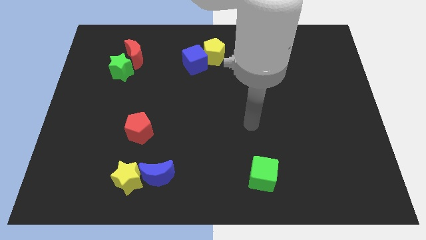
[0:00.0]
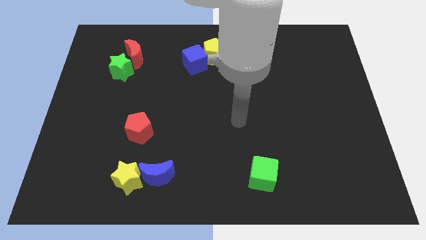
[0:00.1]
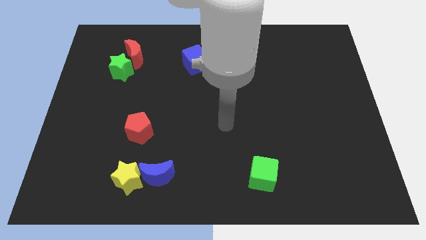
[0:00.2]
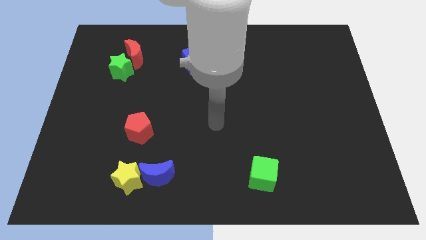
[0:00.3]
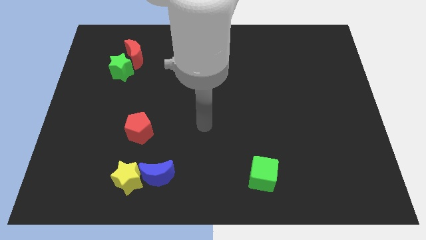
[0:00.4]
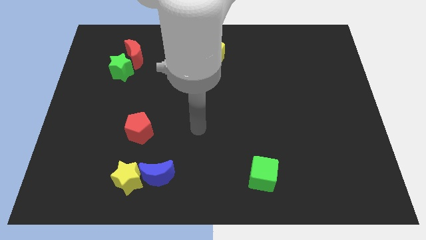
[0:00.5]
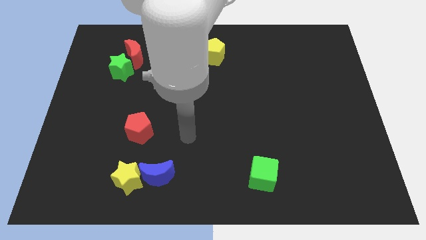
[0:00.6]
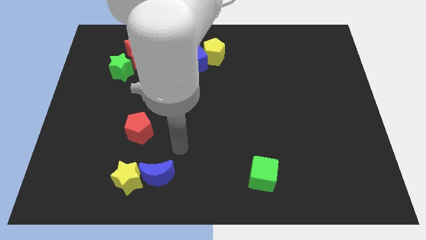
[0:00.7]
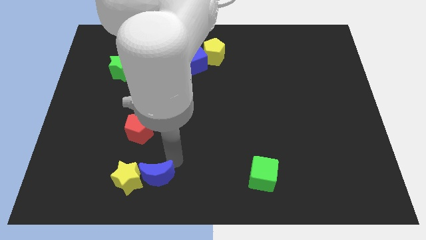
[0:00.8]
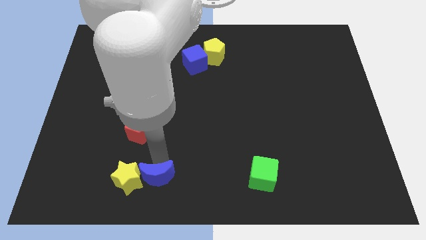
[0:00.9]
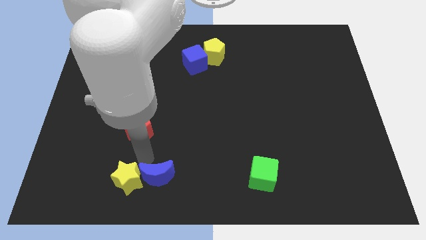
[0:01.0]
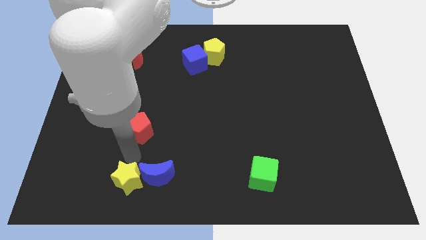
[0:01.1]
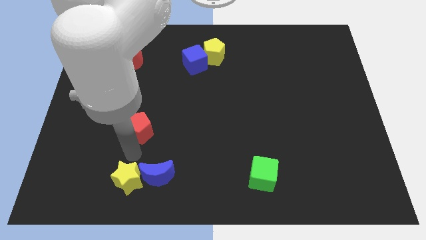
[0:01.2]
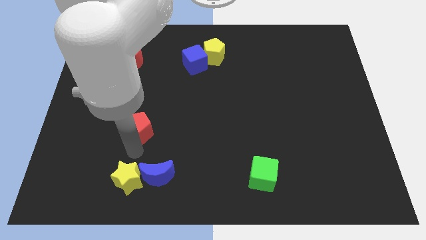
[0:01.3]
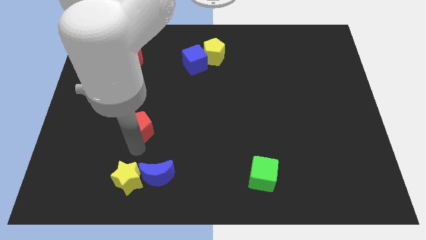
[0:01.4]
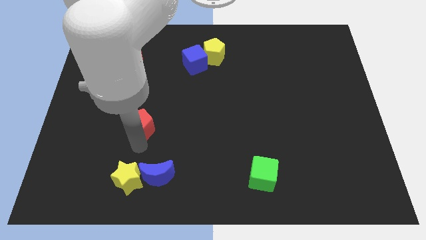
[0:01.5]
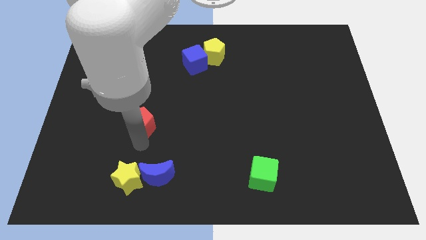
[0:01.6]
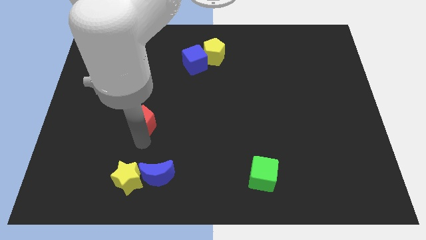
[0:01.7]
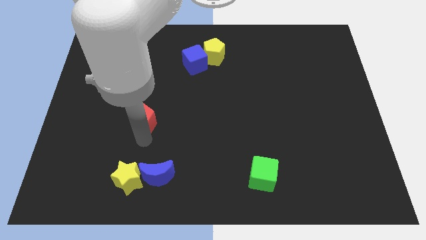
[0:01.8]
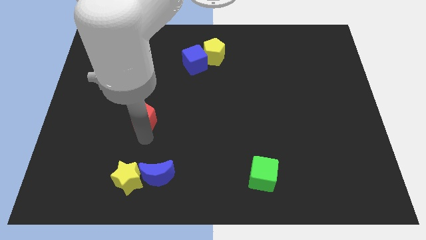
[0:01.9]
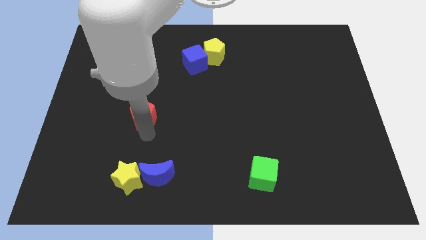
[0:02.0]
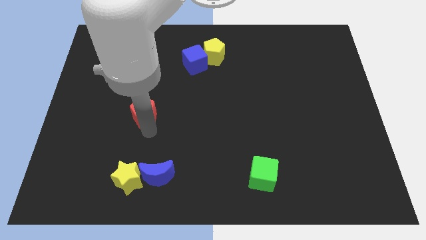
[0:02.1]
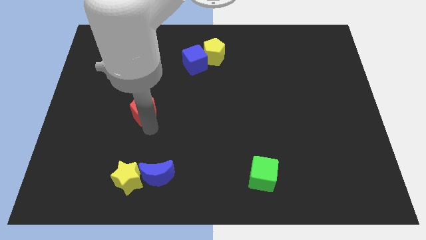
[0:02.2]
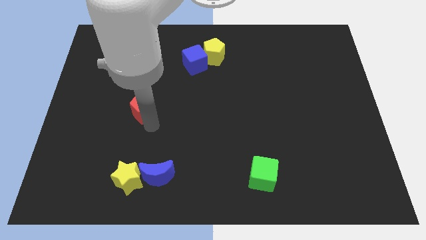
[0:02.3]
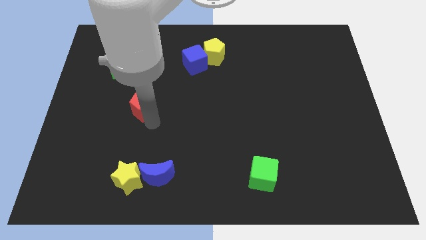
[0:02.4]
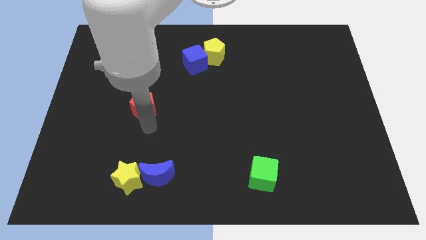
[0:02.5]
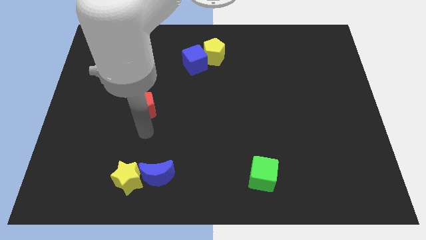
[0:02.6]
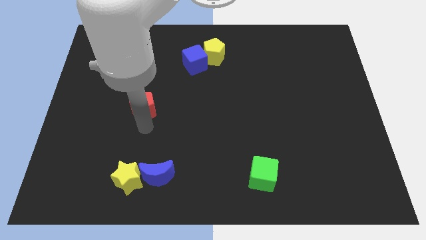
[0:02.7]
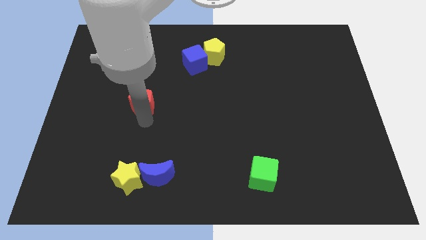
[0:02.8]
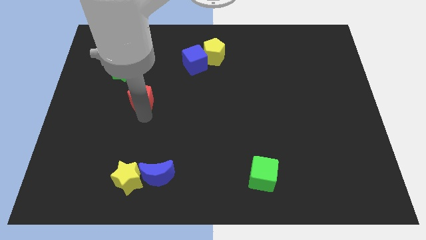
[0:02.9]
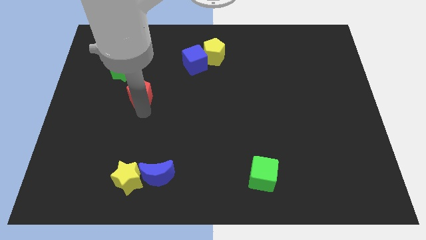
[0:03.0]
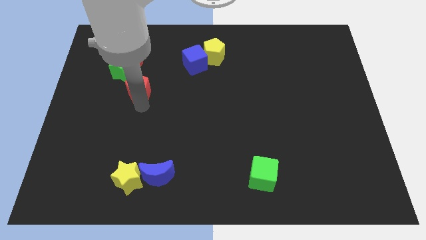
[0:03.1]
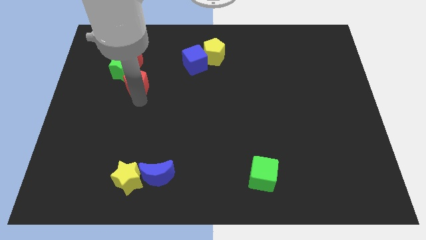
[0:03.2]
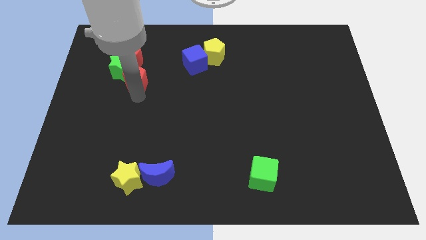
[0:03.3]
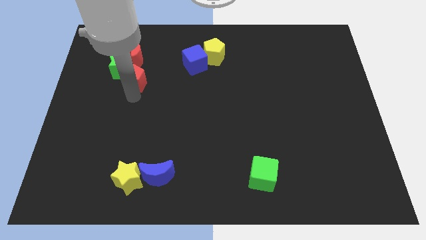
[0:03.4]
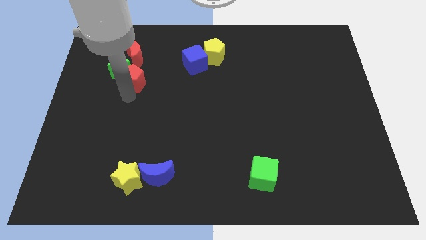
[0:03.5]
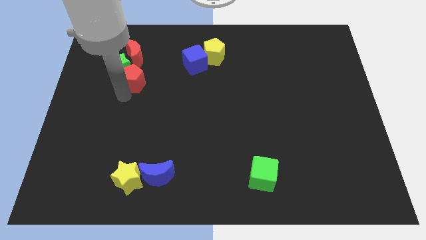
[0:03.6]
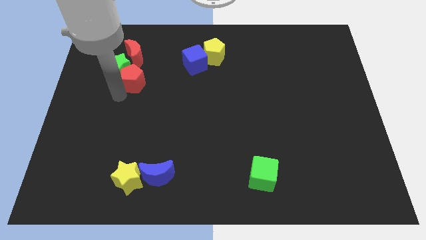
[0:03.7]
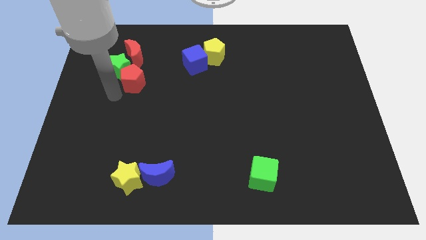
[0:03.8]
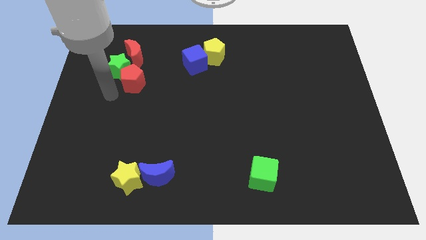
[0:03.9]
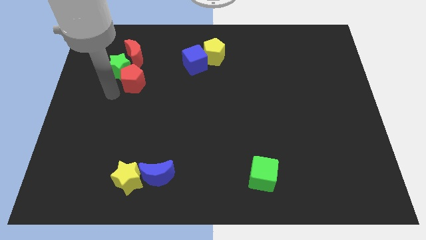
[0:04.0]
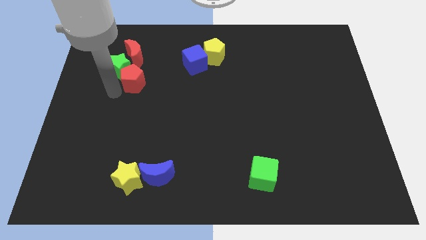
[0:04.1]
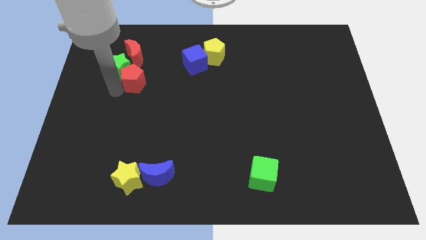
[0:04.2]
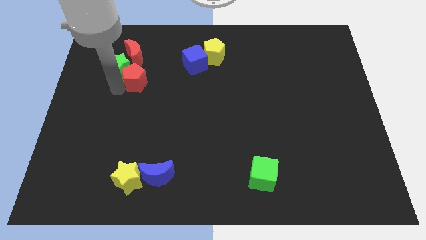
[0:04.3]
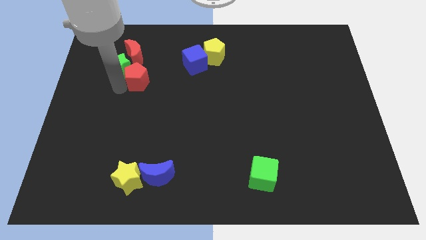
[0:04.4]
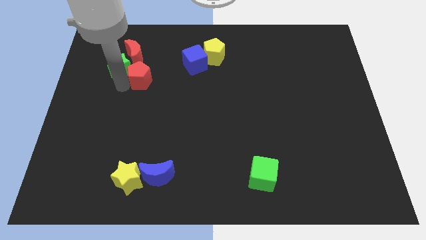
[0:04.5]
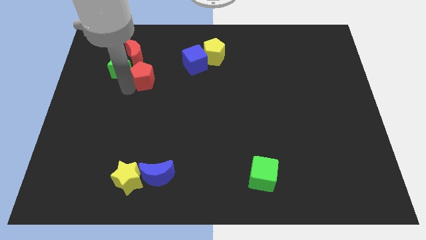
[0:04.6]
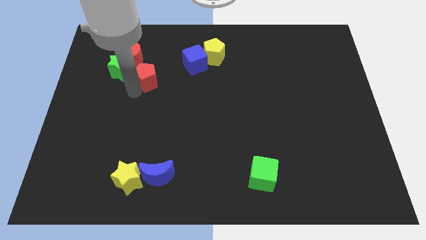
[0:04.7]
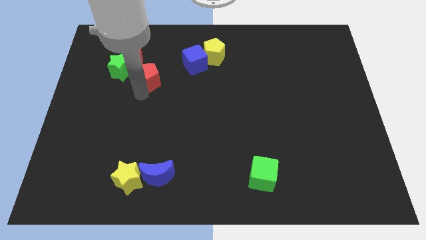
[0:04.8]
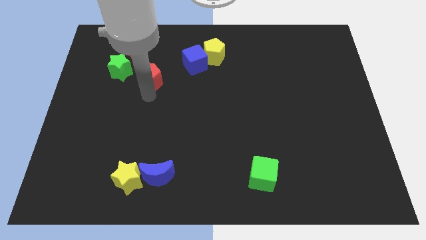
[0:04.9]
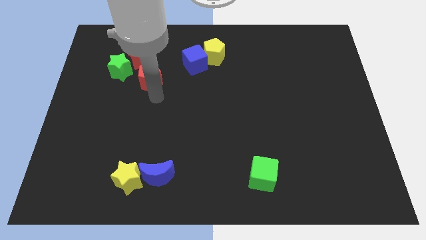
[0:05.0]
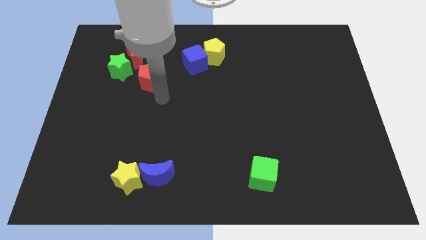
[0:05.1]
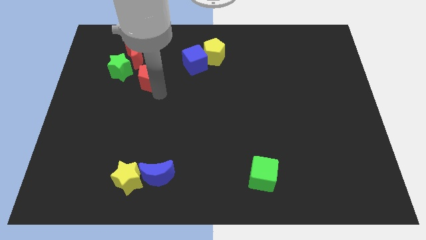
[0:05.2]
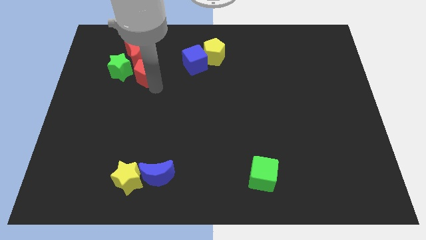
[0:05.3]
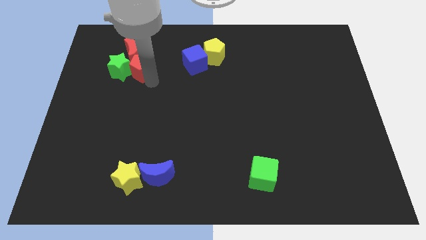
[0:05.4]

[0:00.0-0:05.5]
slide the red pentagon to the red moon

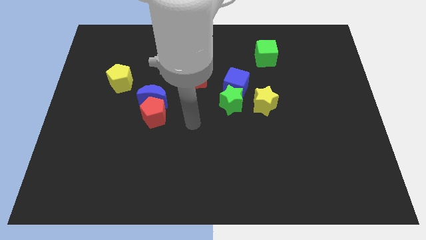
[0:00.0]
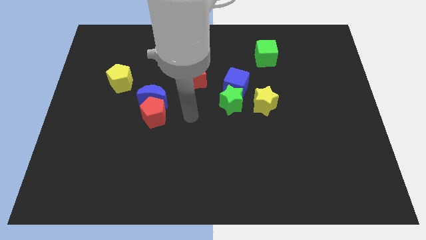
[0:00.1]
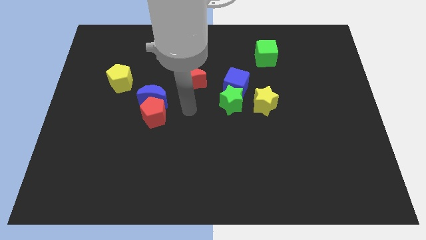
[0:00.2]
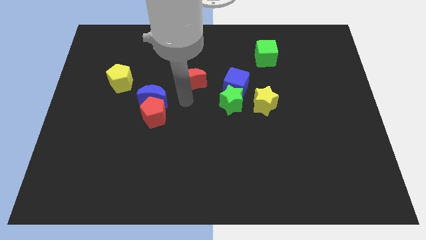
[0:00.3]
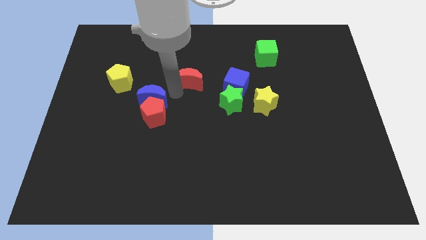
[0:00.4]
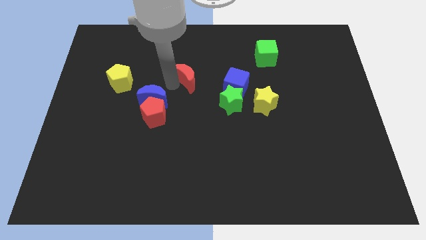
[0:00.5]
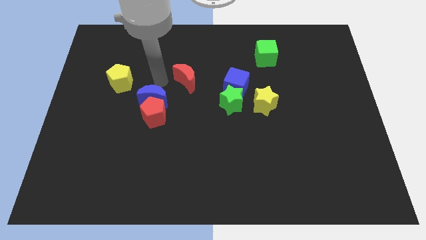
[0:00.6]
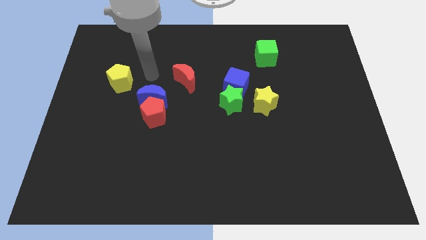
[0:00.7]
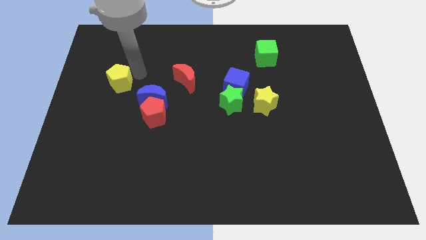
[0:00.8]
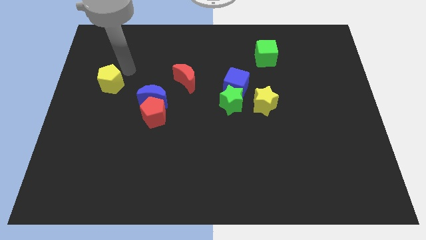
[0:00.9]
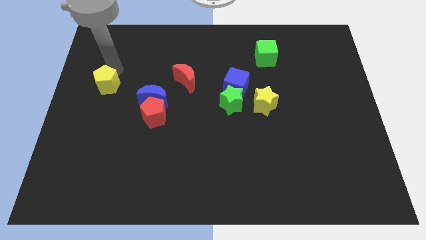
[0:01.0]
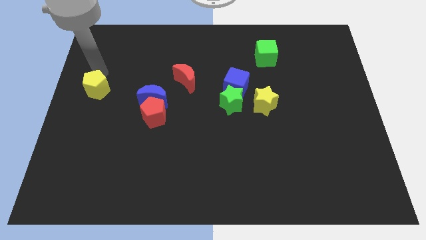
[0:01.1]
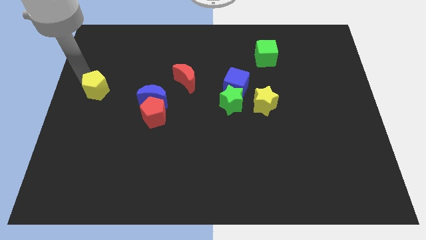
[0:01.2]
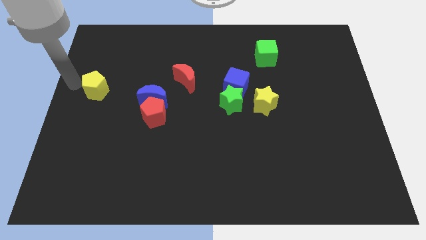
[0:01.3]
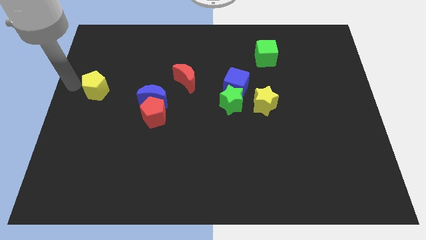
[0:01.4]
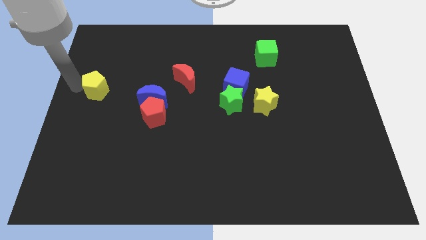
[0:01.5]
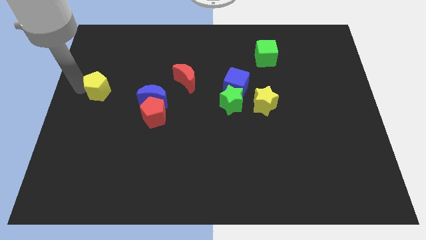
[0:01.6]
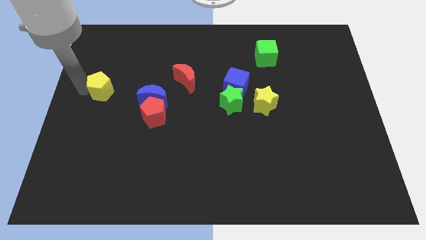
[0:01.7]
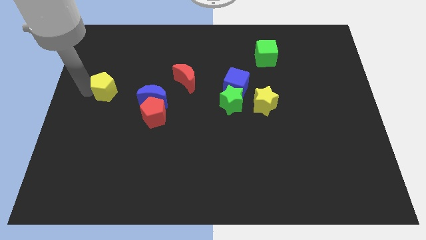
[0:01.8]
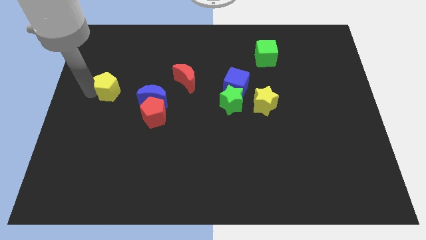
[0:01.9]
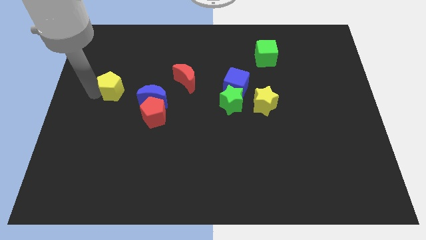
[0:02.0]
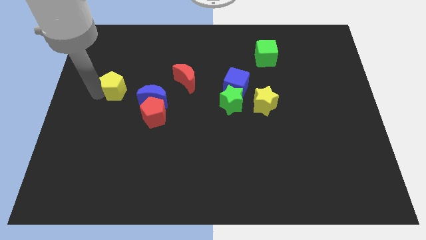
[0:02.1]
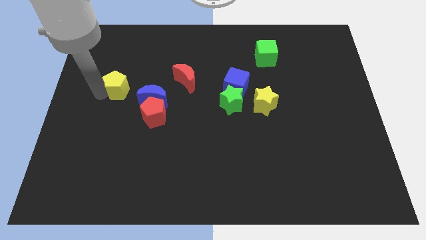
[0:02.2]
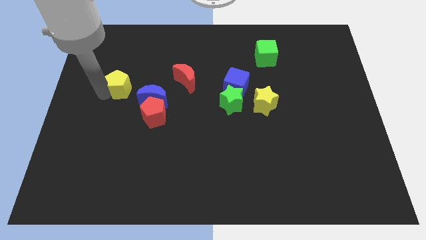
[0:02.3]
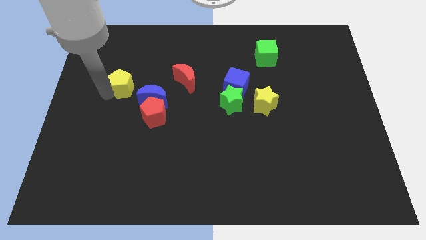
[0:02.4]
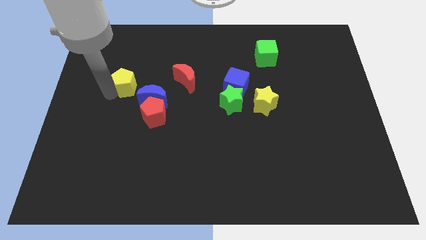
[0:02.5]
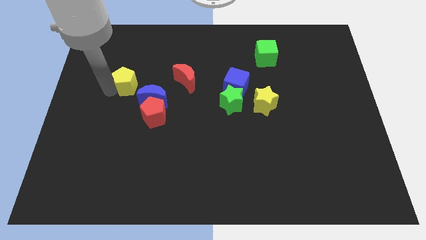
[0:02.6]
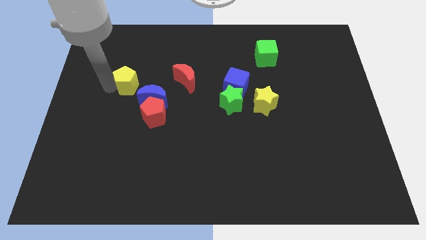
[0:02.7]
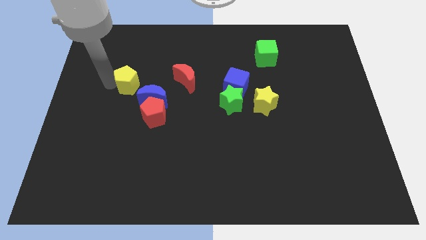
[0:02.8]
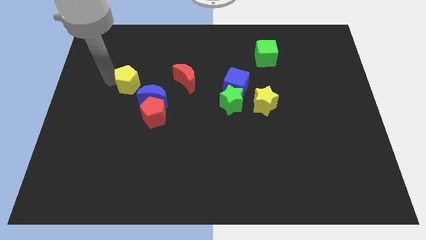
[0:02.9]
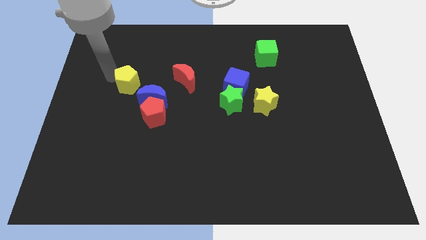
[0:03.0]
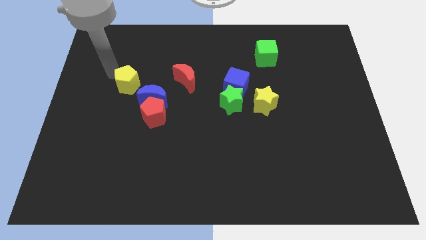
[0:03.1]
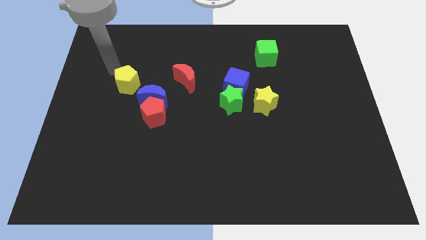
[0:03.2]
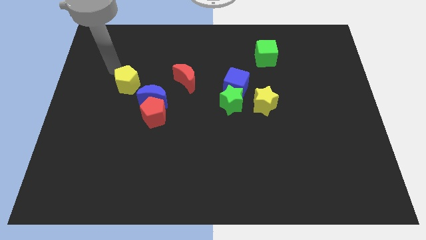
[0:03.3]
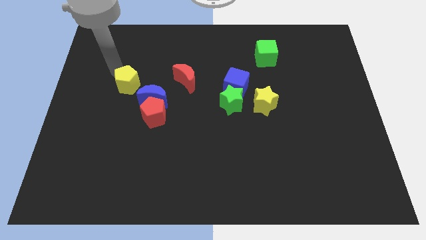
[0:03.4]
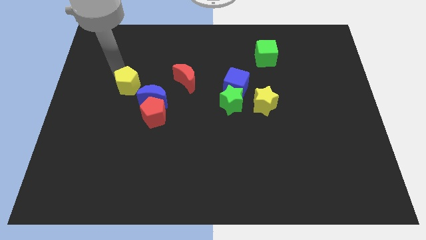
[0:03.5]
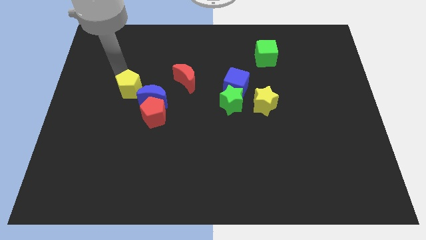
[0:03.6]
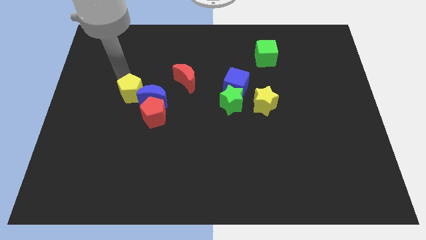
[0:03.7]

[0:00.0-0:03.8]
slide the yellow pentagon next to the blue moon
